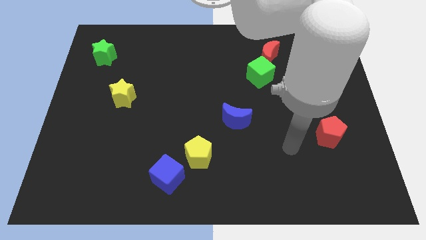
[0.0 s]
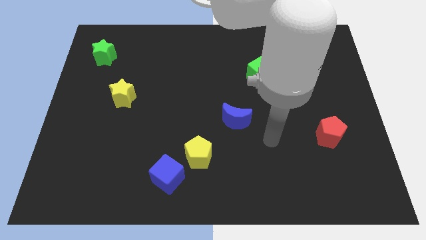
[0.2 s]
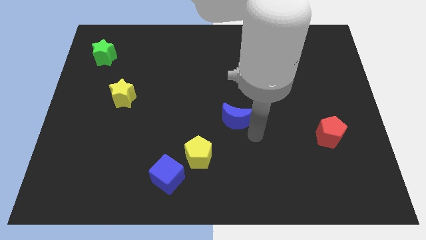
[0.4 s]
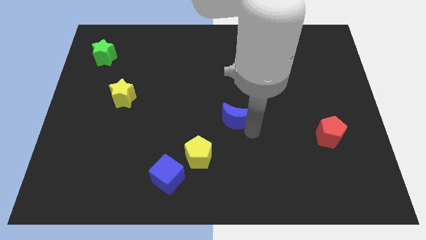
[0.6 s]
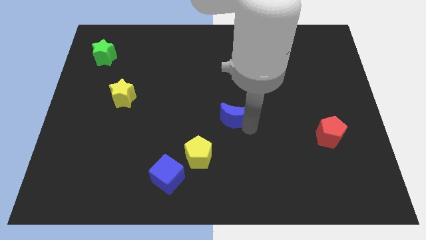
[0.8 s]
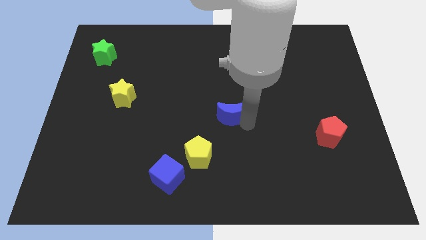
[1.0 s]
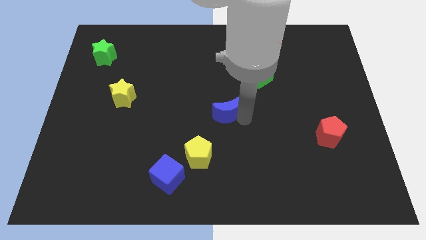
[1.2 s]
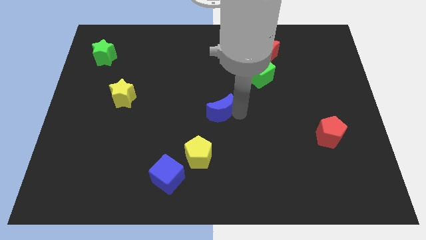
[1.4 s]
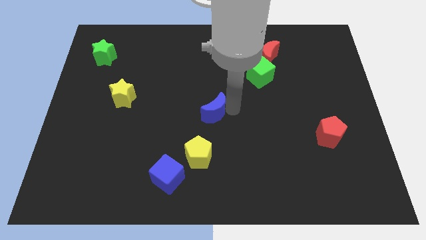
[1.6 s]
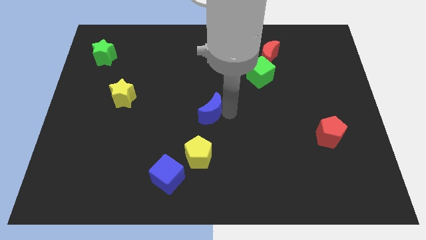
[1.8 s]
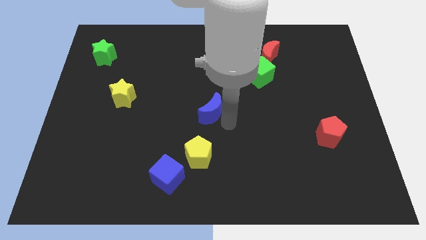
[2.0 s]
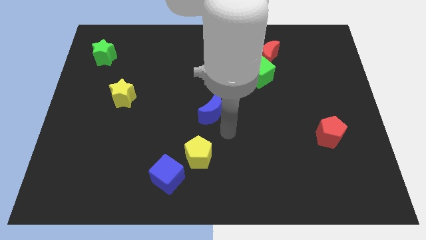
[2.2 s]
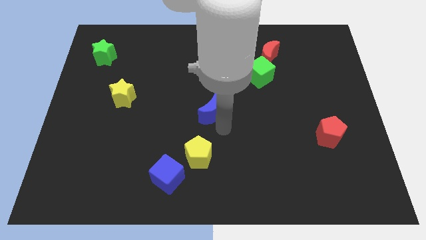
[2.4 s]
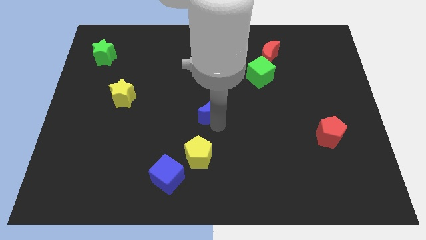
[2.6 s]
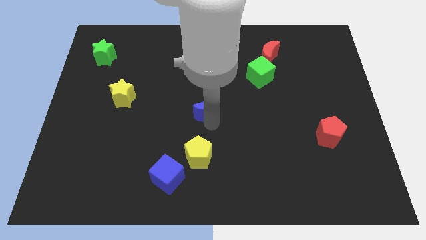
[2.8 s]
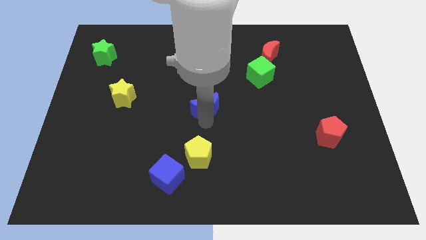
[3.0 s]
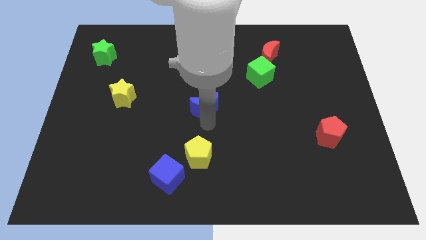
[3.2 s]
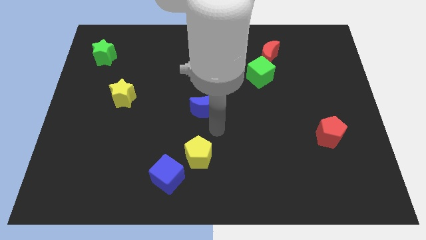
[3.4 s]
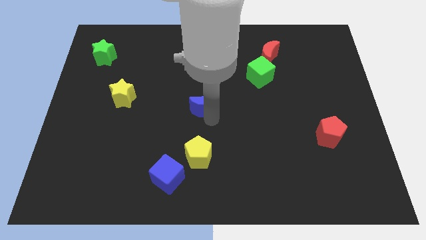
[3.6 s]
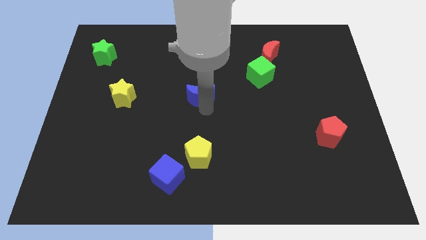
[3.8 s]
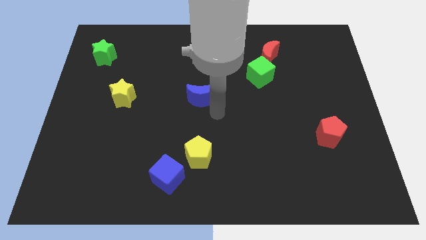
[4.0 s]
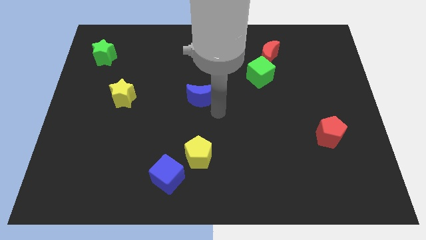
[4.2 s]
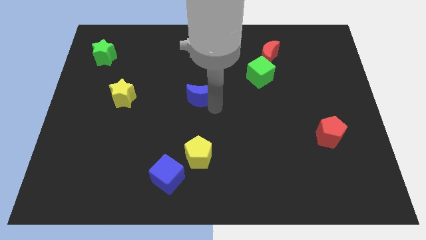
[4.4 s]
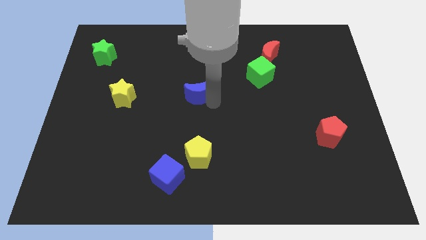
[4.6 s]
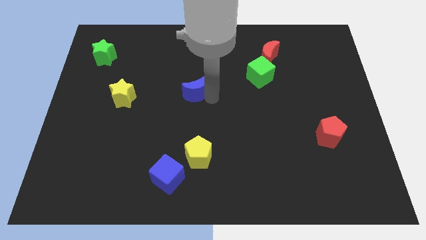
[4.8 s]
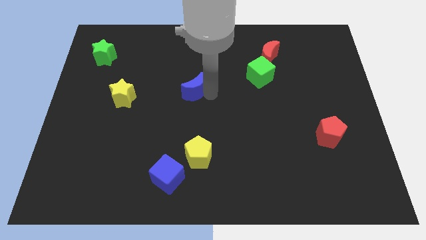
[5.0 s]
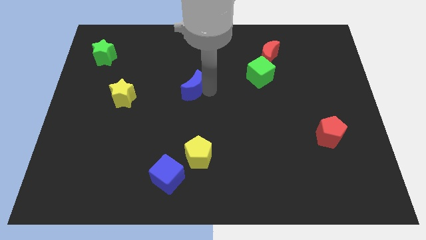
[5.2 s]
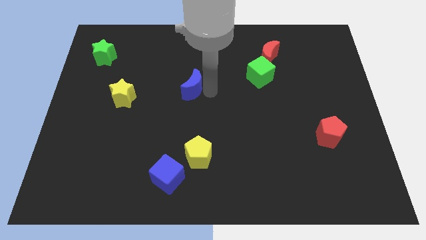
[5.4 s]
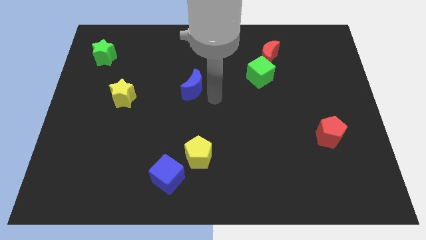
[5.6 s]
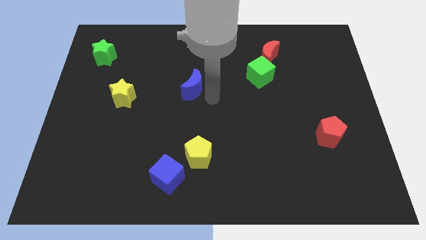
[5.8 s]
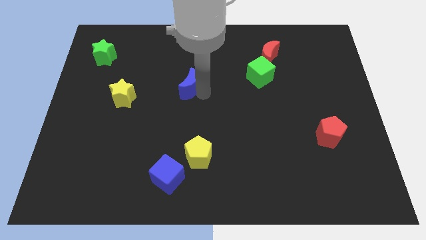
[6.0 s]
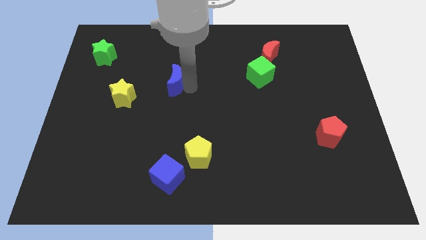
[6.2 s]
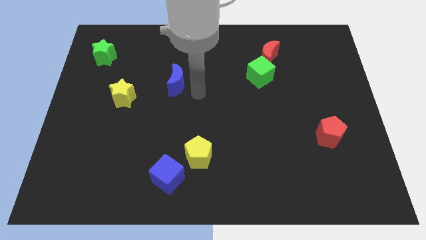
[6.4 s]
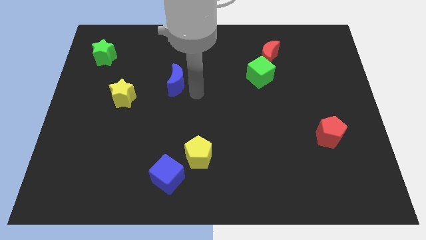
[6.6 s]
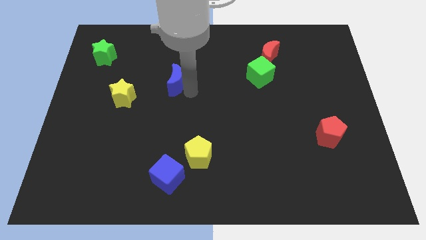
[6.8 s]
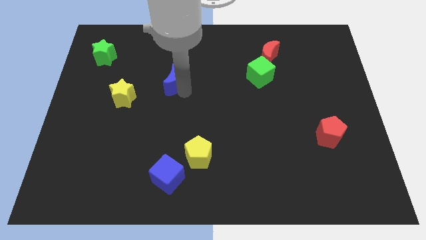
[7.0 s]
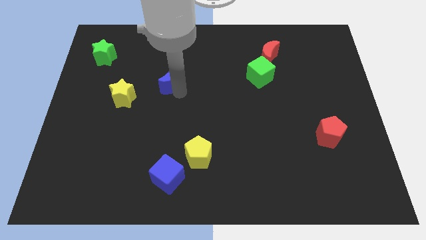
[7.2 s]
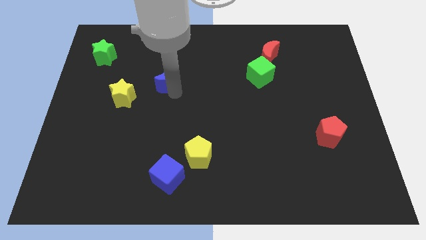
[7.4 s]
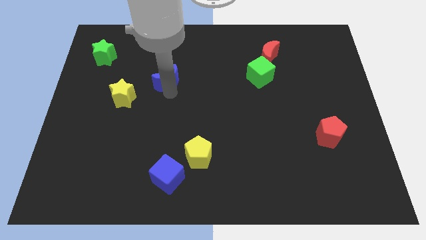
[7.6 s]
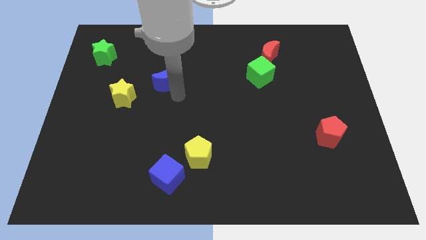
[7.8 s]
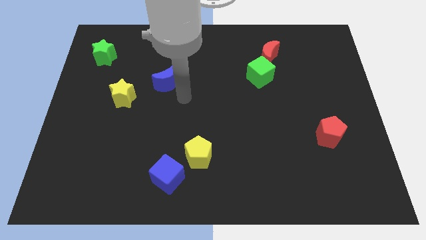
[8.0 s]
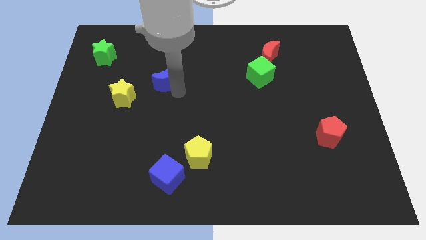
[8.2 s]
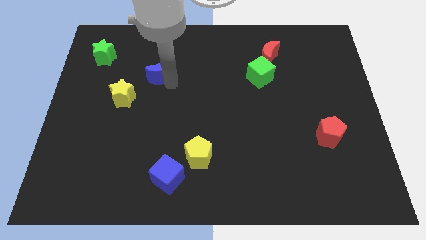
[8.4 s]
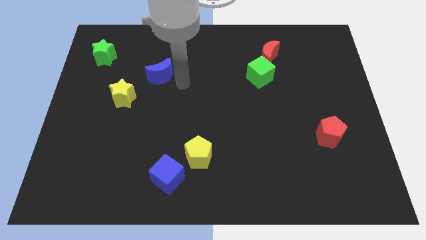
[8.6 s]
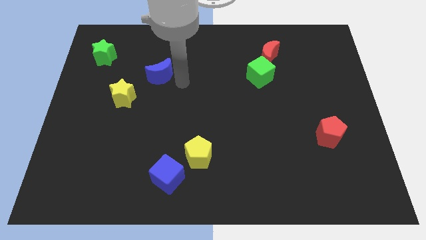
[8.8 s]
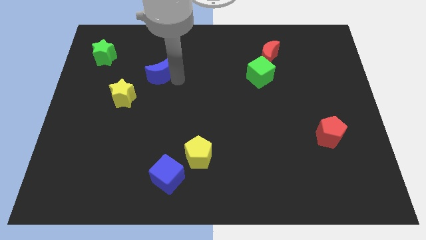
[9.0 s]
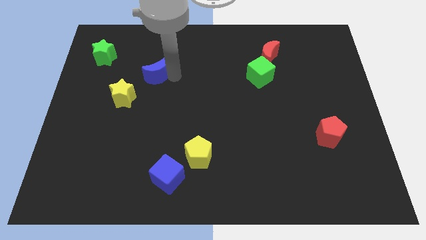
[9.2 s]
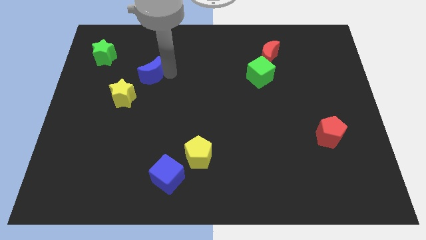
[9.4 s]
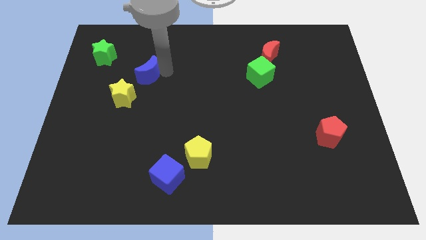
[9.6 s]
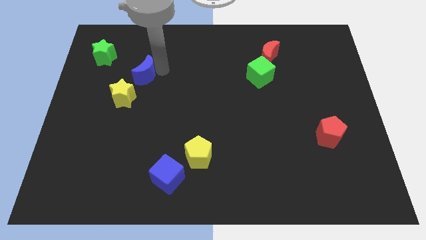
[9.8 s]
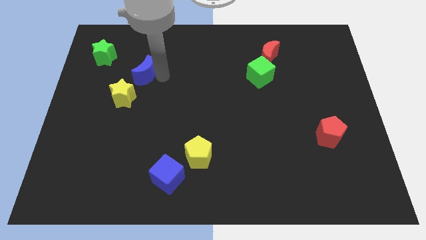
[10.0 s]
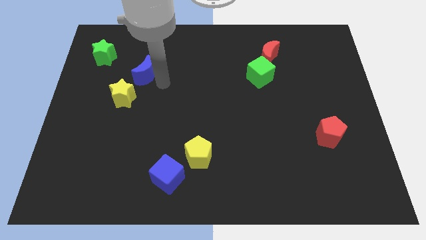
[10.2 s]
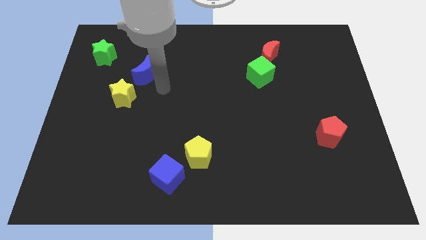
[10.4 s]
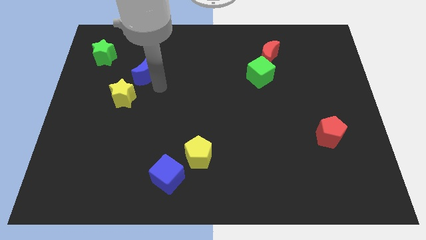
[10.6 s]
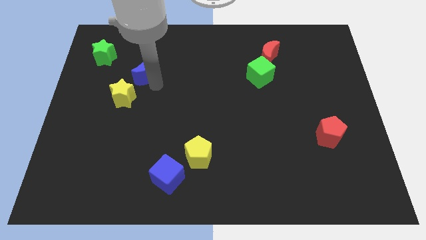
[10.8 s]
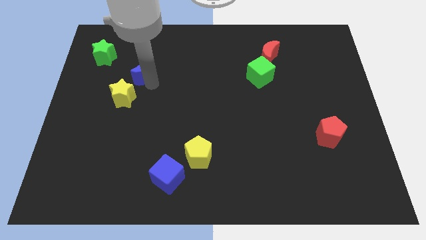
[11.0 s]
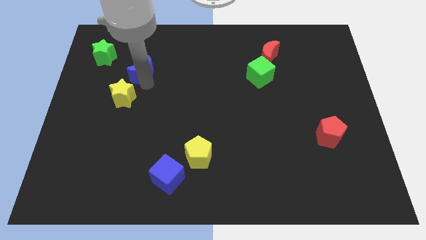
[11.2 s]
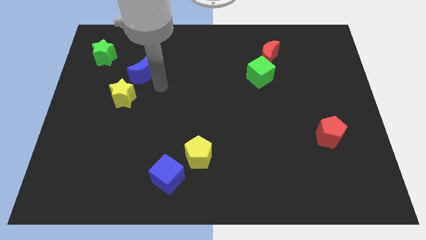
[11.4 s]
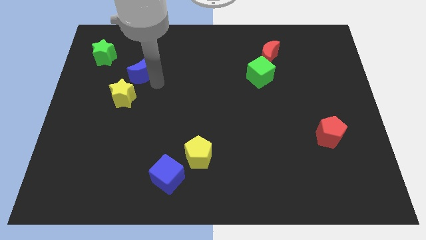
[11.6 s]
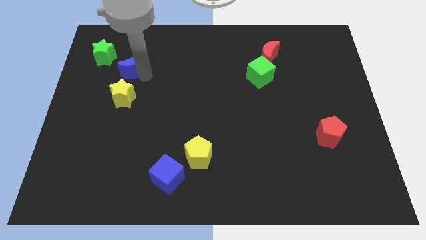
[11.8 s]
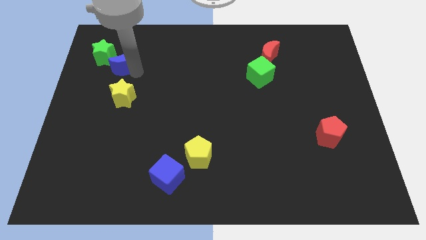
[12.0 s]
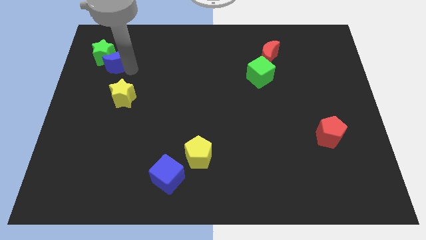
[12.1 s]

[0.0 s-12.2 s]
move the blue moon towards the green star

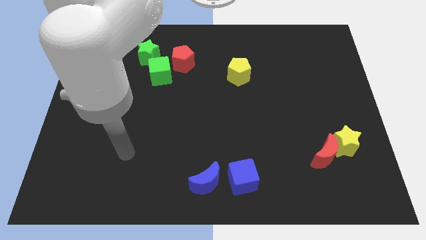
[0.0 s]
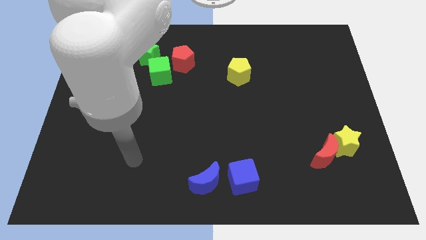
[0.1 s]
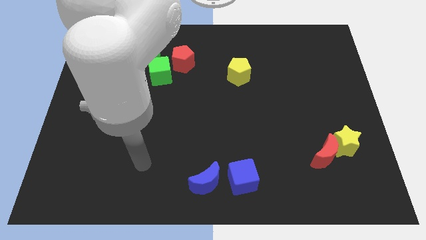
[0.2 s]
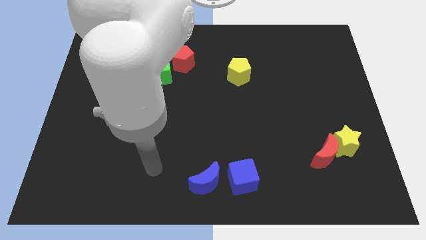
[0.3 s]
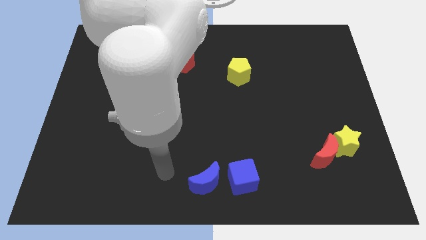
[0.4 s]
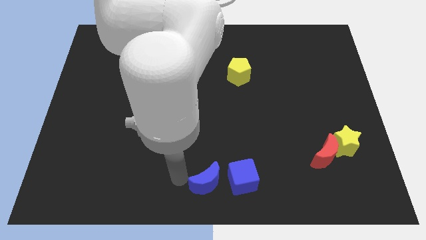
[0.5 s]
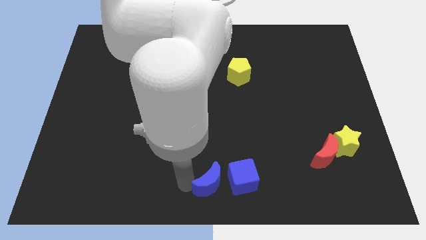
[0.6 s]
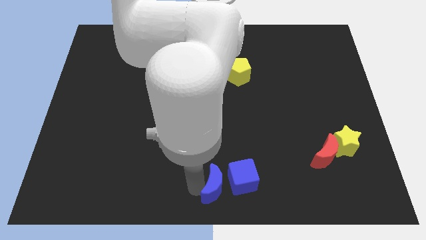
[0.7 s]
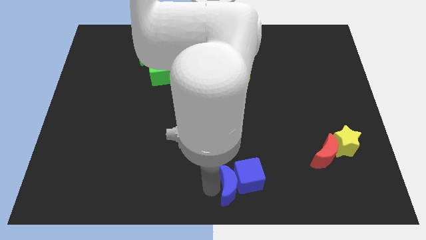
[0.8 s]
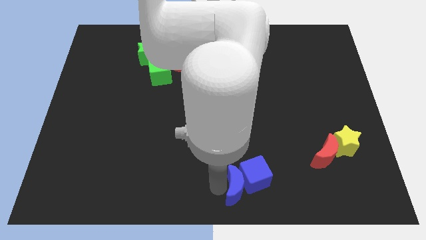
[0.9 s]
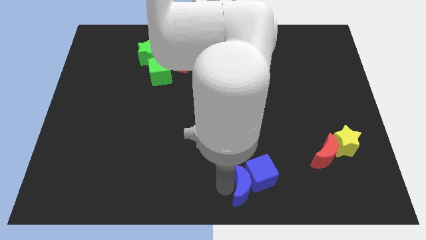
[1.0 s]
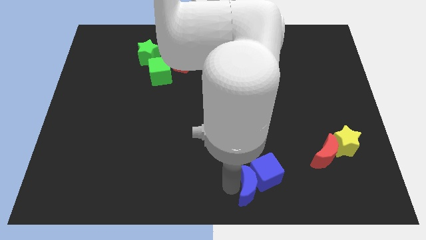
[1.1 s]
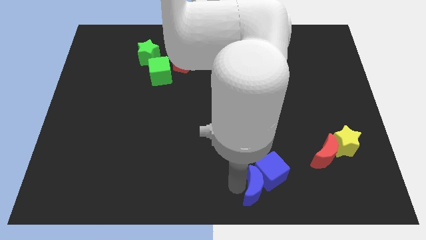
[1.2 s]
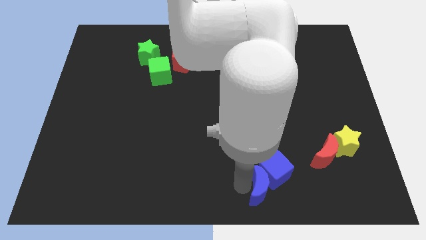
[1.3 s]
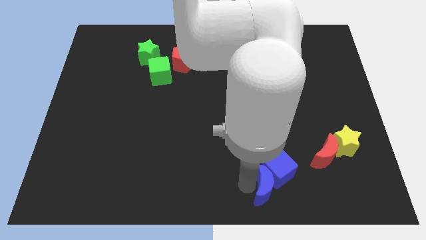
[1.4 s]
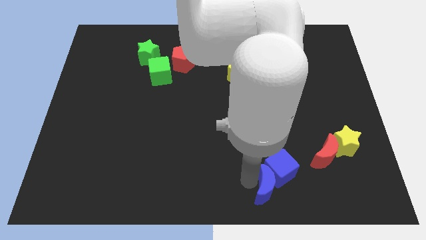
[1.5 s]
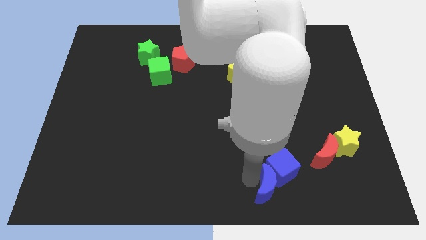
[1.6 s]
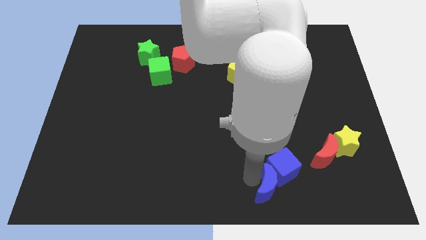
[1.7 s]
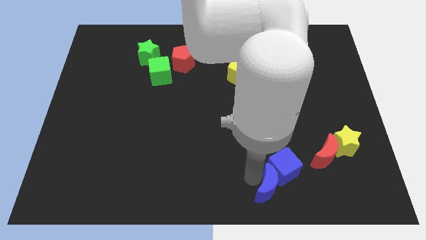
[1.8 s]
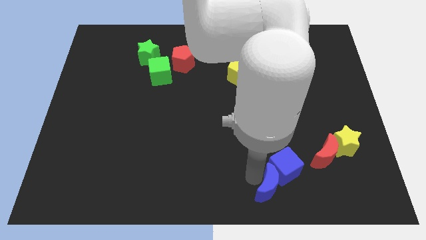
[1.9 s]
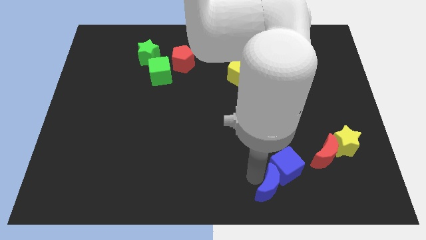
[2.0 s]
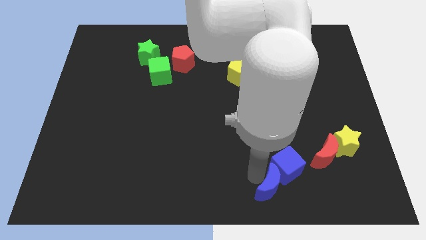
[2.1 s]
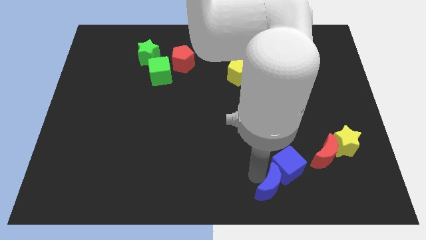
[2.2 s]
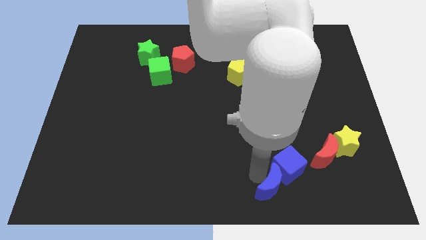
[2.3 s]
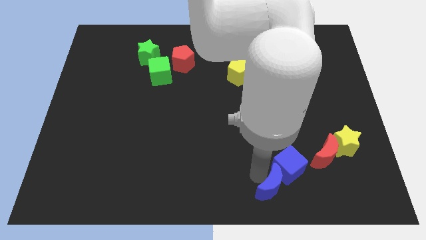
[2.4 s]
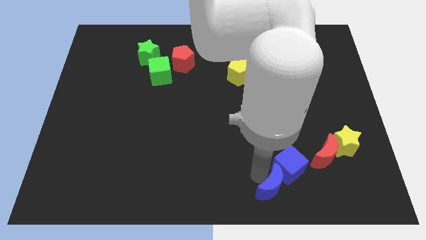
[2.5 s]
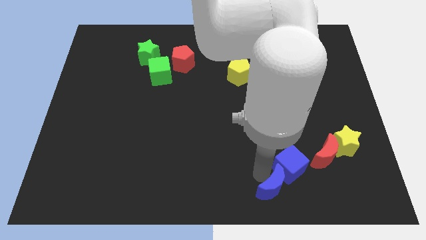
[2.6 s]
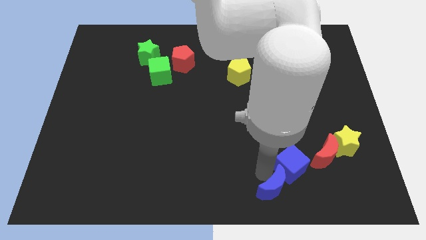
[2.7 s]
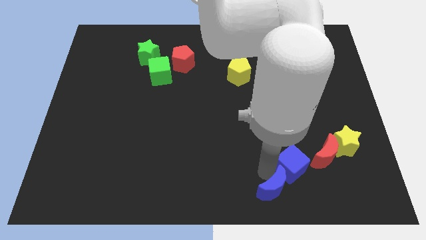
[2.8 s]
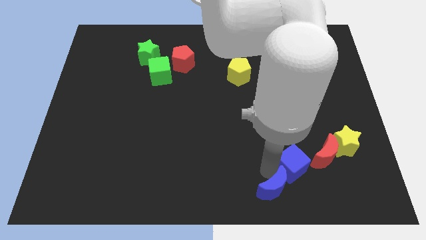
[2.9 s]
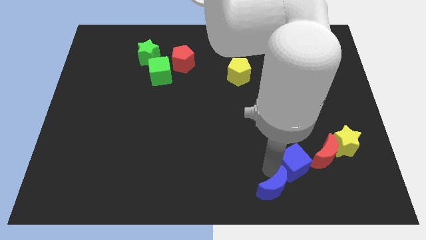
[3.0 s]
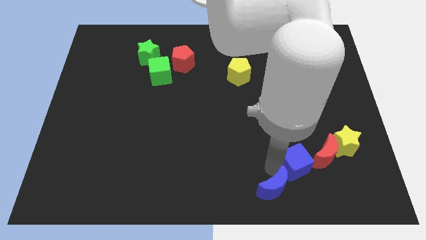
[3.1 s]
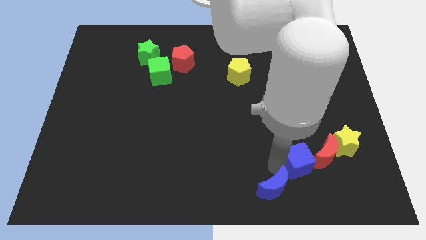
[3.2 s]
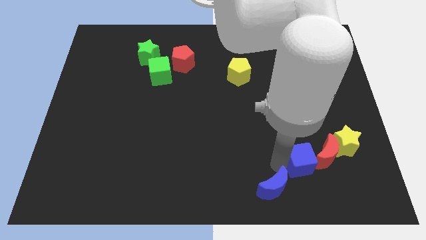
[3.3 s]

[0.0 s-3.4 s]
push the blue cube to the red moon
